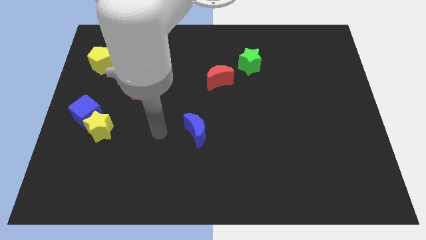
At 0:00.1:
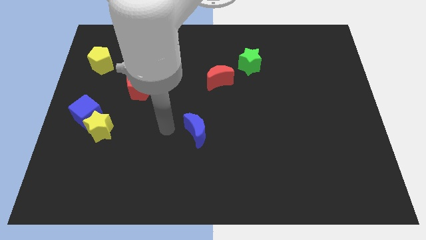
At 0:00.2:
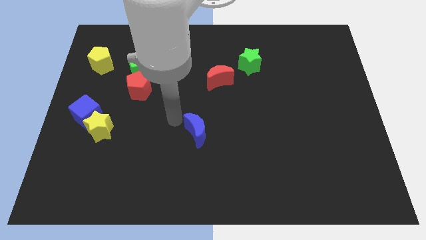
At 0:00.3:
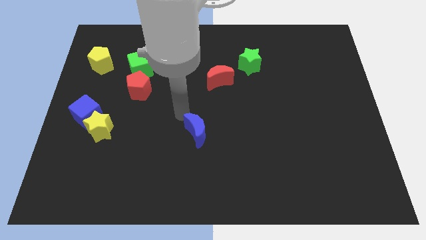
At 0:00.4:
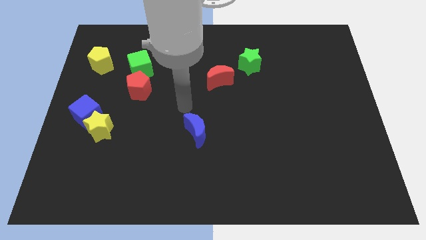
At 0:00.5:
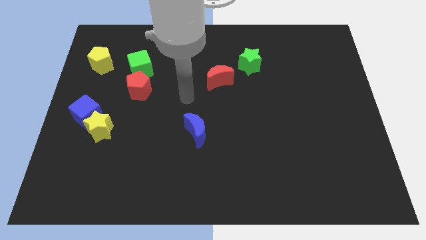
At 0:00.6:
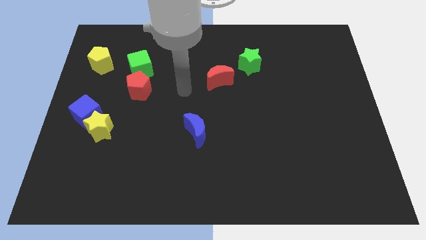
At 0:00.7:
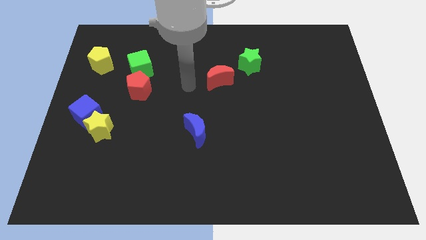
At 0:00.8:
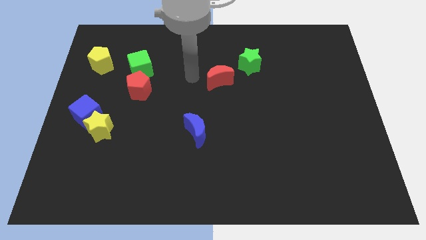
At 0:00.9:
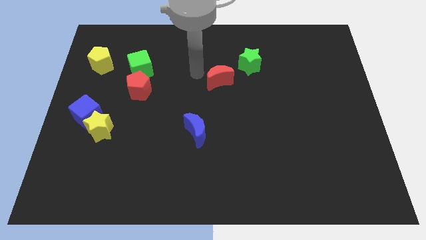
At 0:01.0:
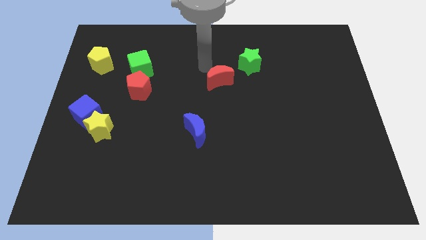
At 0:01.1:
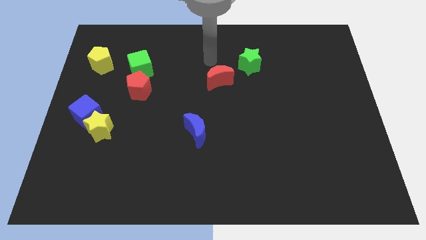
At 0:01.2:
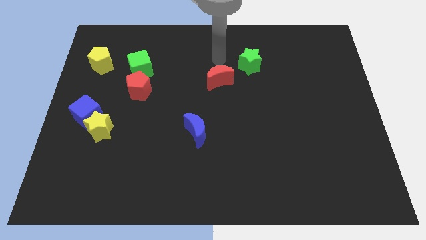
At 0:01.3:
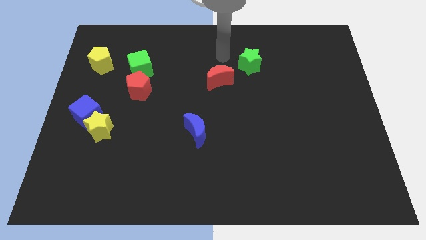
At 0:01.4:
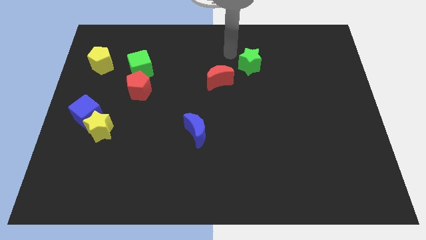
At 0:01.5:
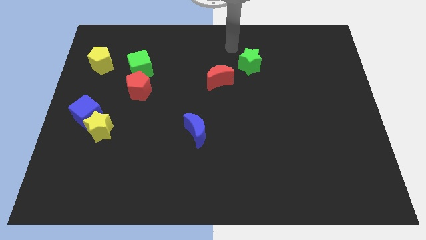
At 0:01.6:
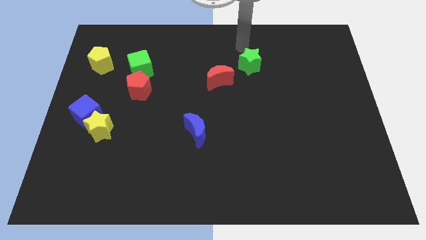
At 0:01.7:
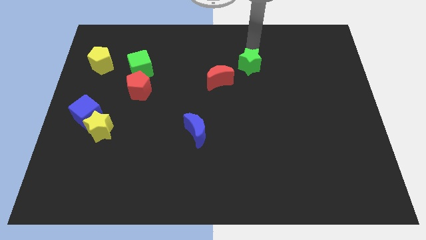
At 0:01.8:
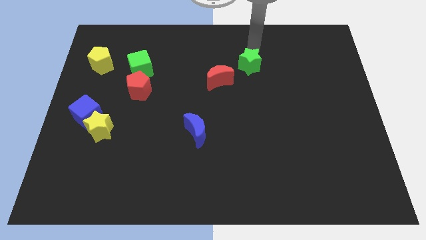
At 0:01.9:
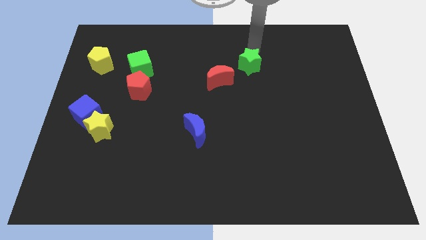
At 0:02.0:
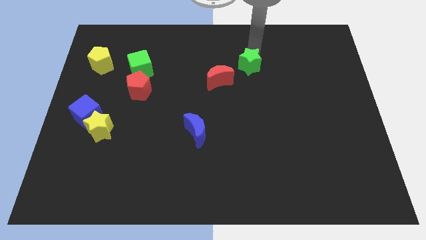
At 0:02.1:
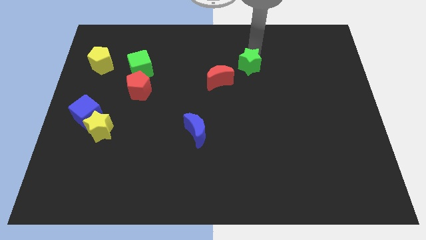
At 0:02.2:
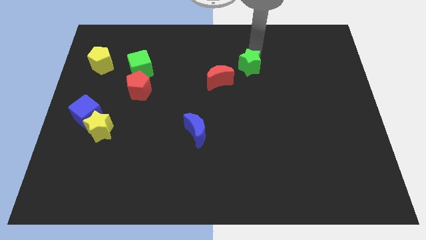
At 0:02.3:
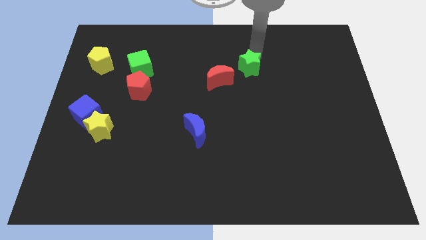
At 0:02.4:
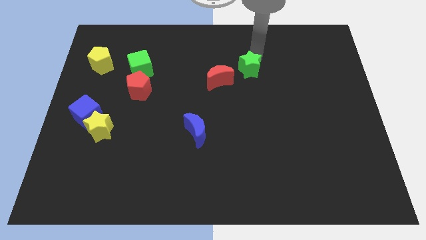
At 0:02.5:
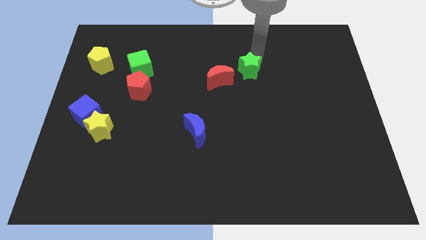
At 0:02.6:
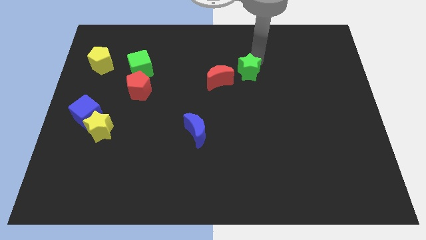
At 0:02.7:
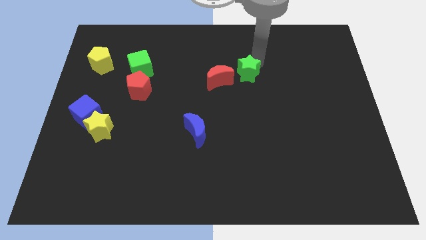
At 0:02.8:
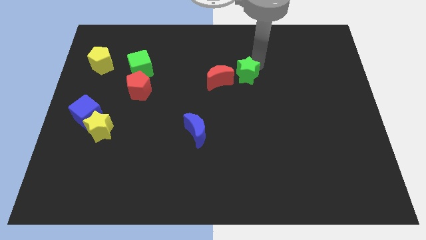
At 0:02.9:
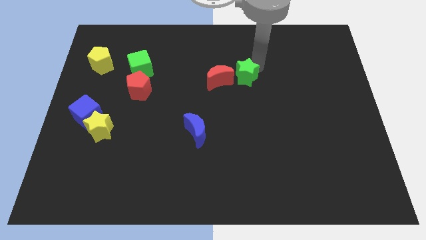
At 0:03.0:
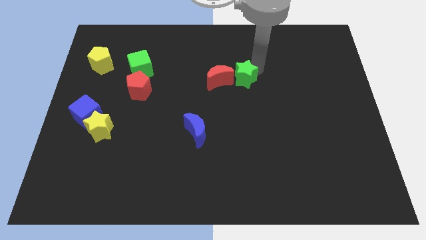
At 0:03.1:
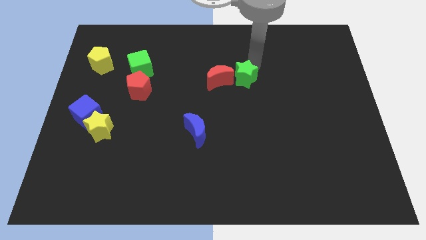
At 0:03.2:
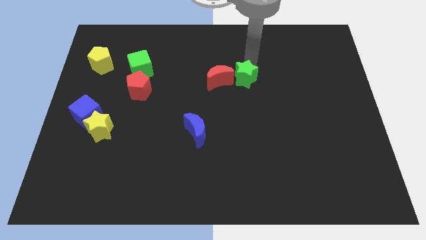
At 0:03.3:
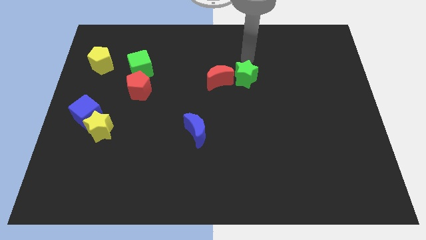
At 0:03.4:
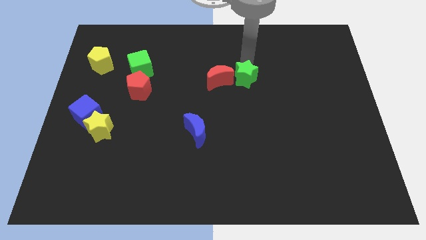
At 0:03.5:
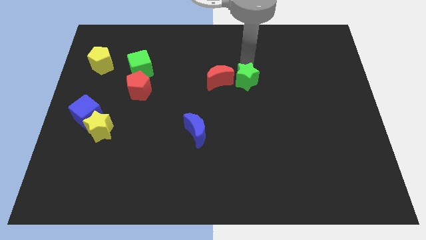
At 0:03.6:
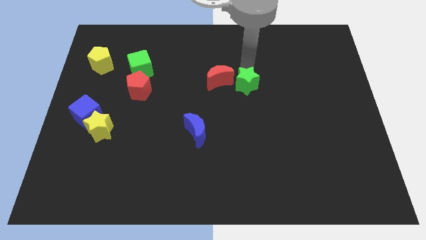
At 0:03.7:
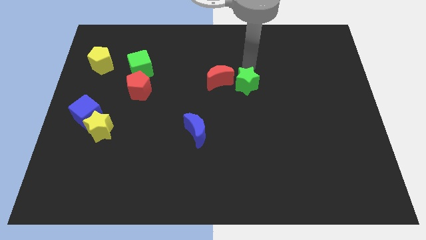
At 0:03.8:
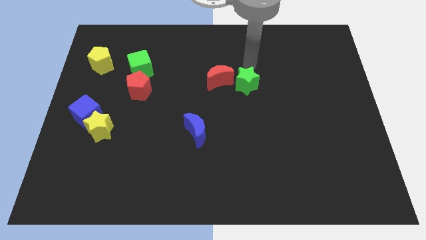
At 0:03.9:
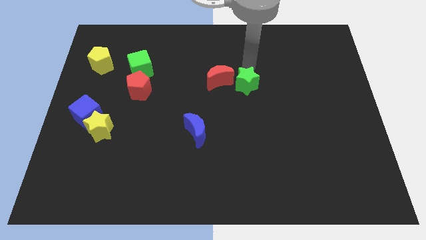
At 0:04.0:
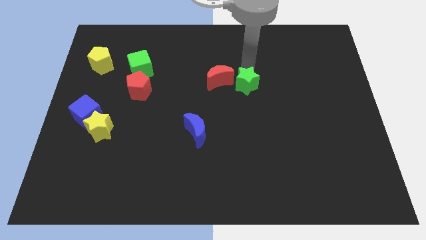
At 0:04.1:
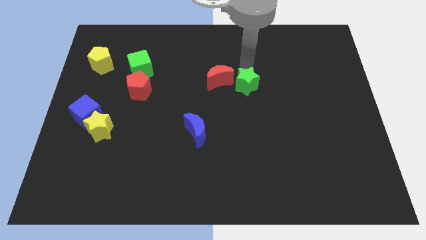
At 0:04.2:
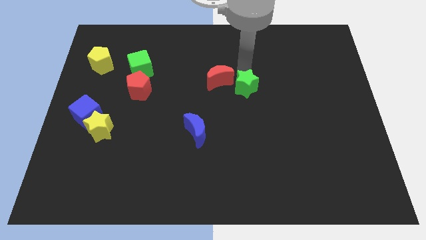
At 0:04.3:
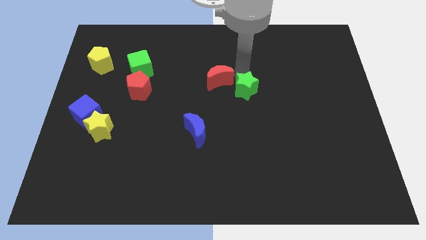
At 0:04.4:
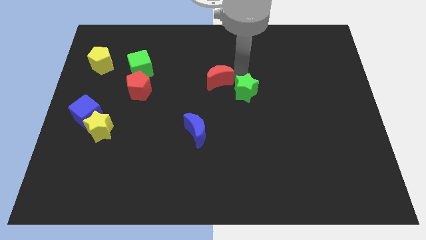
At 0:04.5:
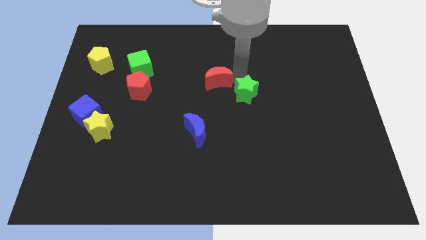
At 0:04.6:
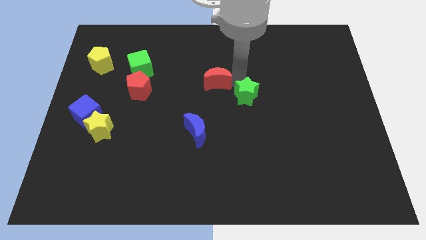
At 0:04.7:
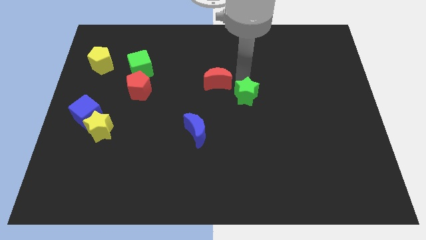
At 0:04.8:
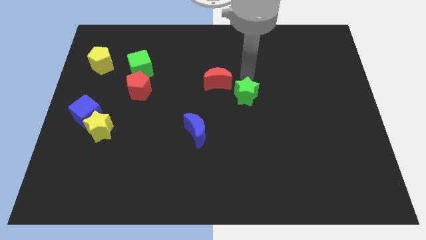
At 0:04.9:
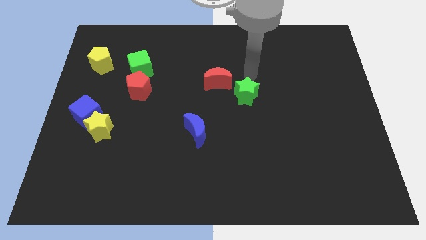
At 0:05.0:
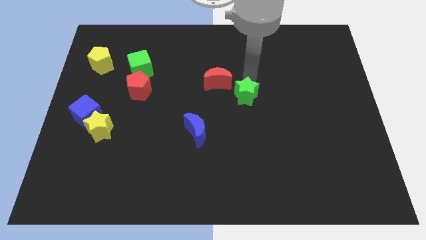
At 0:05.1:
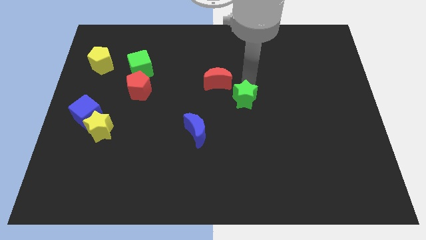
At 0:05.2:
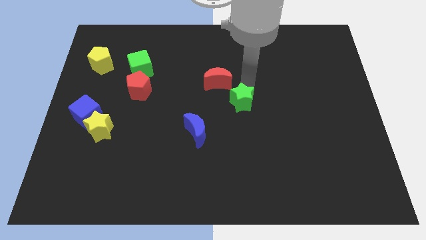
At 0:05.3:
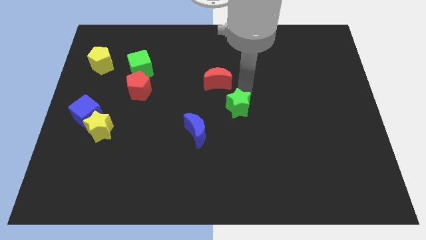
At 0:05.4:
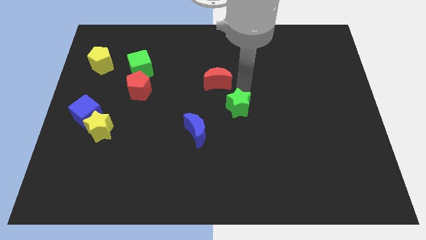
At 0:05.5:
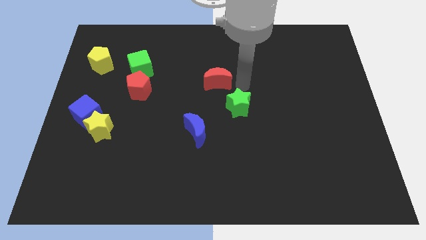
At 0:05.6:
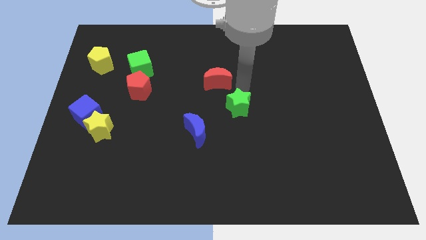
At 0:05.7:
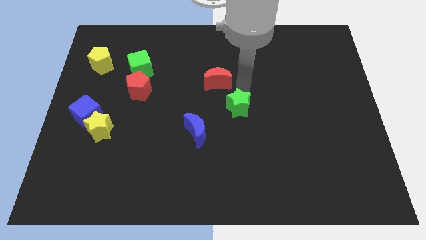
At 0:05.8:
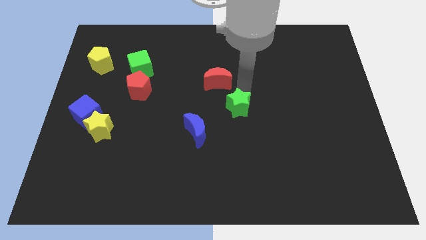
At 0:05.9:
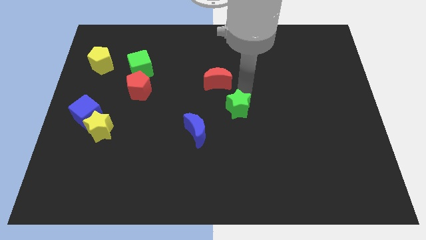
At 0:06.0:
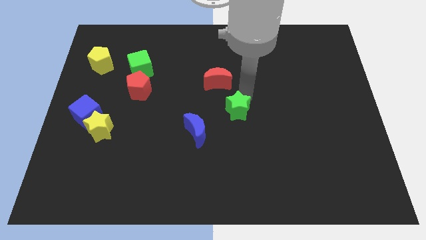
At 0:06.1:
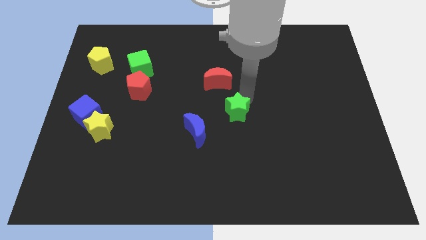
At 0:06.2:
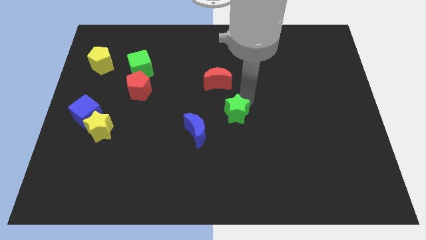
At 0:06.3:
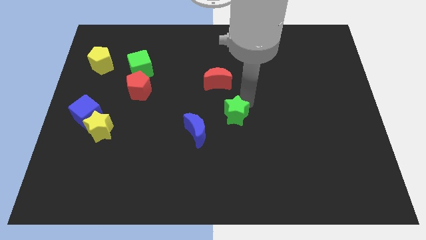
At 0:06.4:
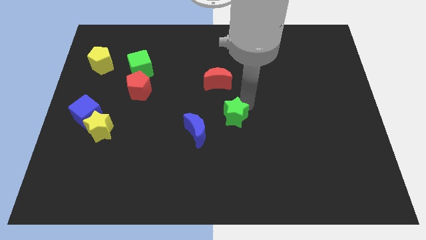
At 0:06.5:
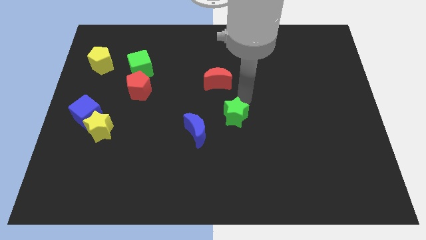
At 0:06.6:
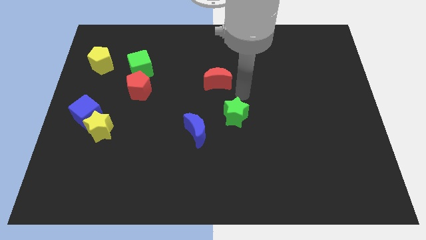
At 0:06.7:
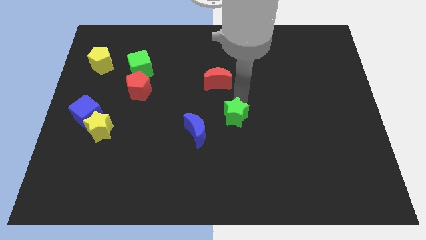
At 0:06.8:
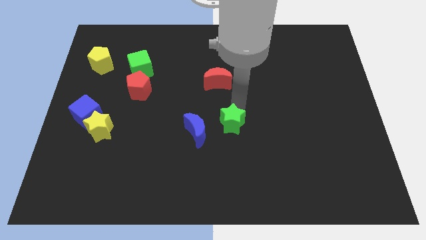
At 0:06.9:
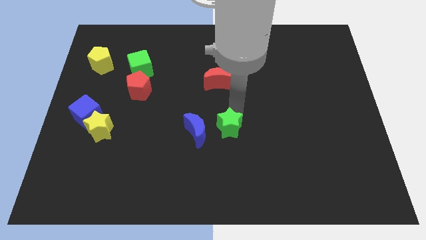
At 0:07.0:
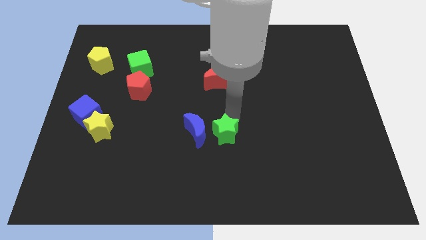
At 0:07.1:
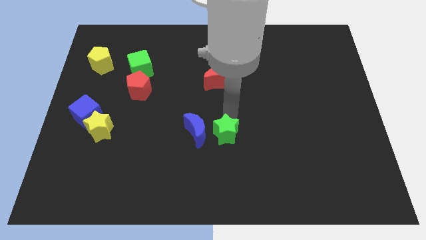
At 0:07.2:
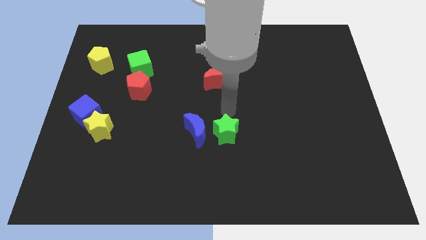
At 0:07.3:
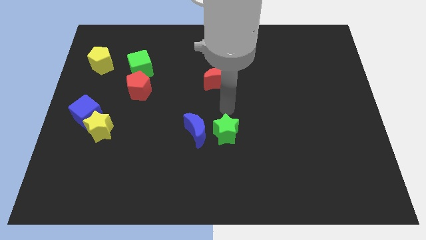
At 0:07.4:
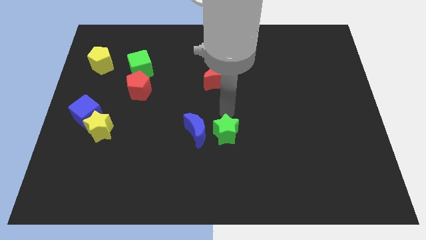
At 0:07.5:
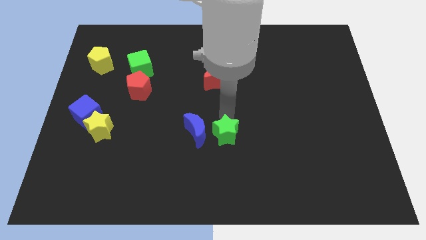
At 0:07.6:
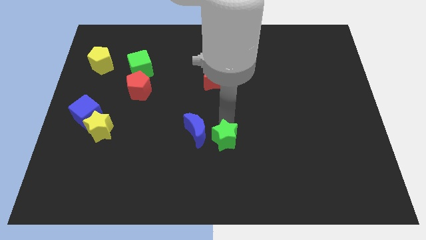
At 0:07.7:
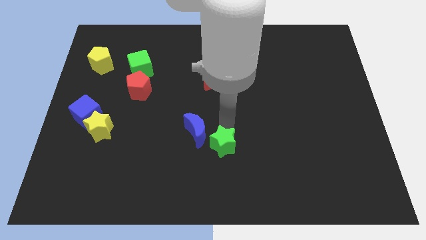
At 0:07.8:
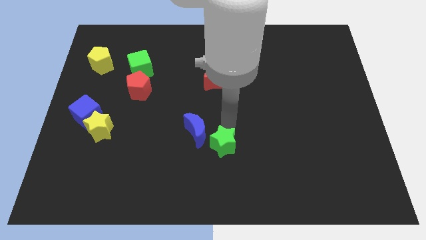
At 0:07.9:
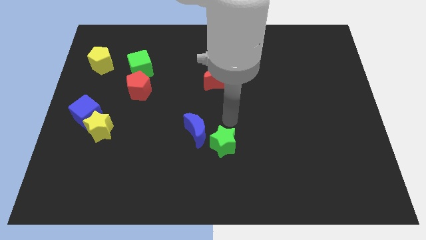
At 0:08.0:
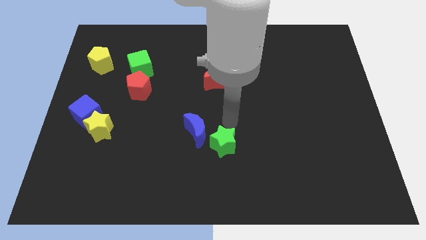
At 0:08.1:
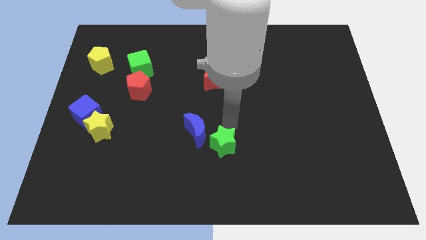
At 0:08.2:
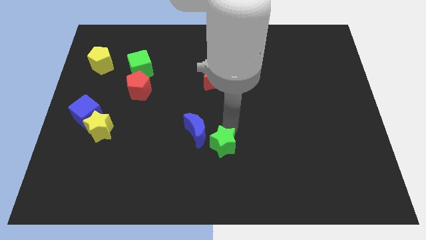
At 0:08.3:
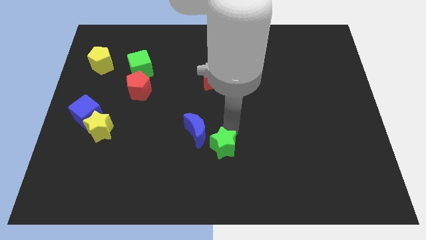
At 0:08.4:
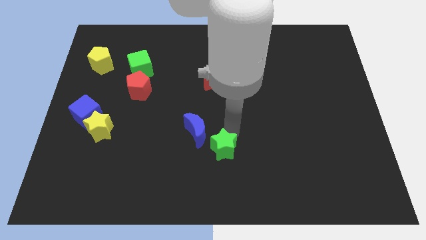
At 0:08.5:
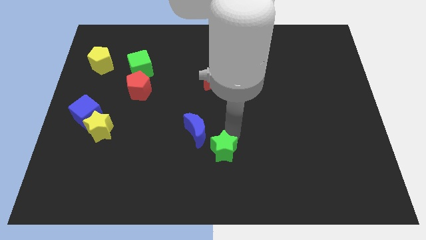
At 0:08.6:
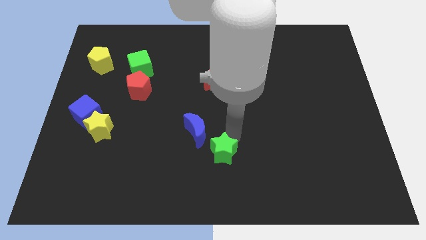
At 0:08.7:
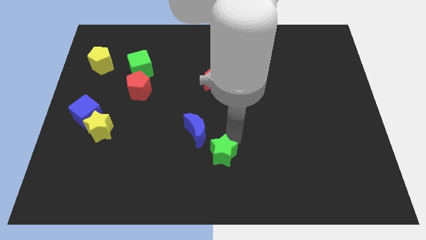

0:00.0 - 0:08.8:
slide the green star to the bottom side
